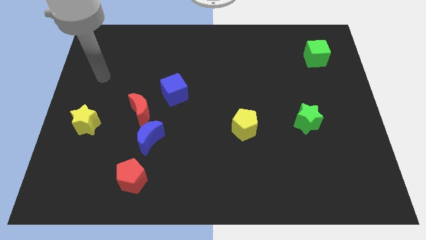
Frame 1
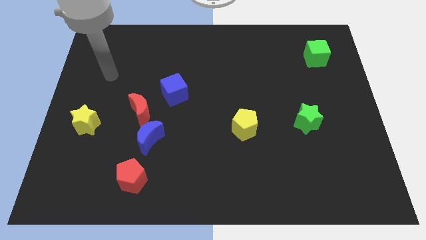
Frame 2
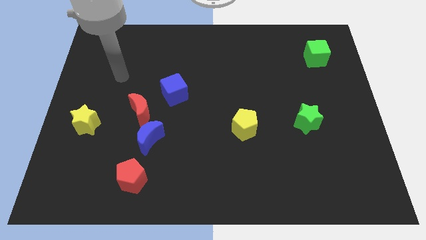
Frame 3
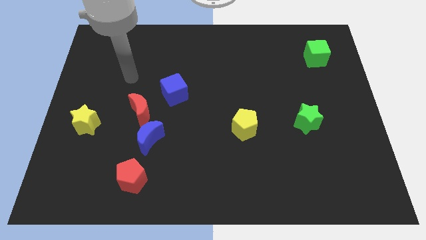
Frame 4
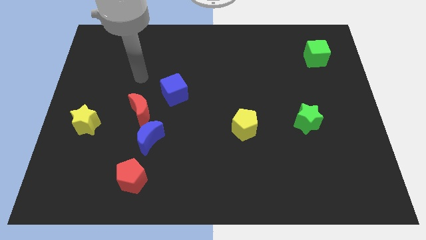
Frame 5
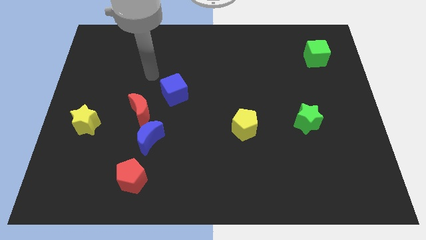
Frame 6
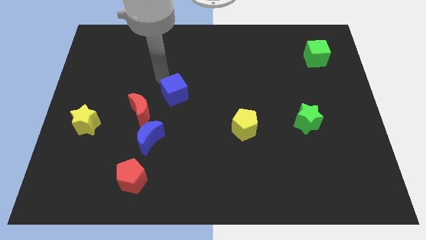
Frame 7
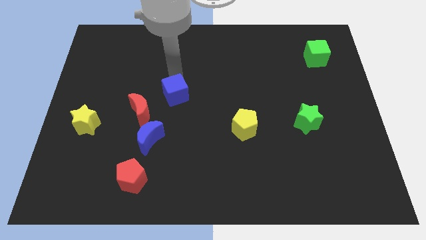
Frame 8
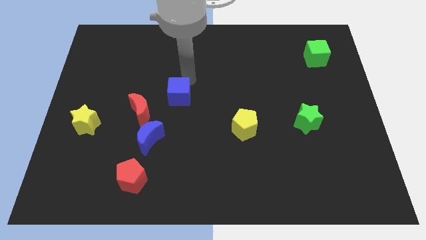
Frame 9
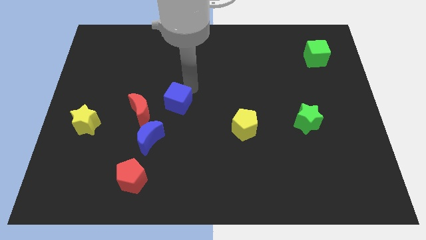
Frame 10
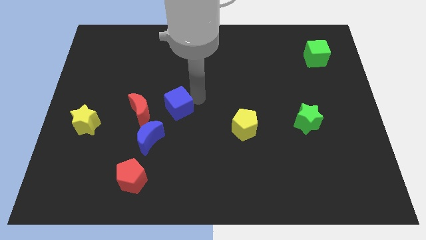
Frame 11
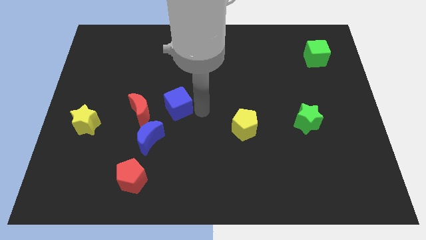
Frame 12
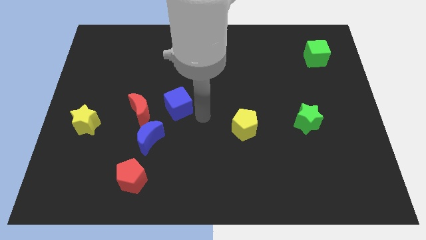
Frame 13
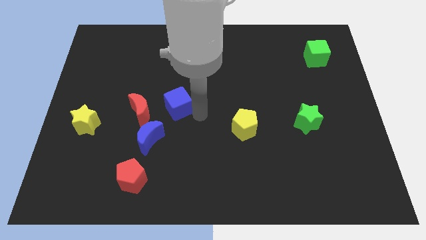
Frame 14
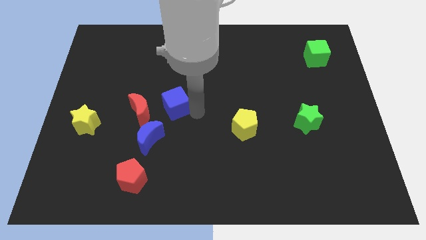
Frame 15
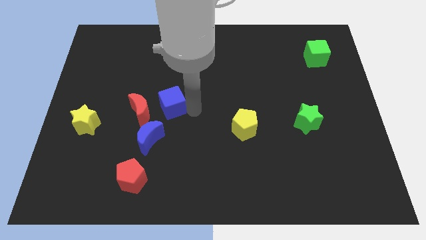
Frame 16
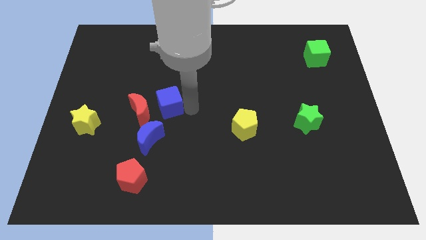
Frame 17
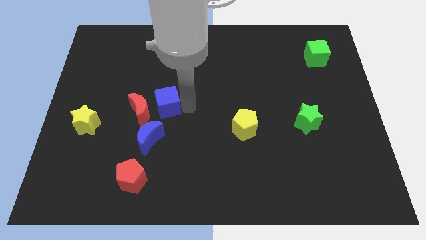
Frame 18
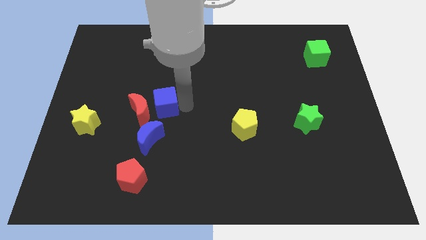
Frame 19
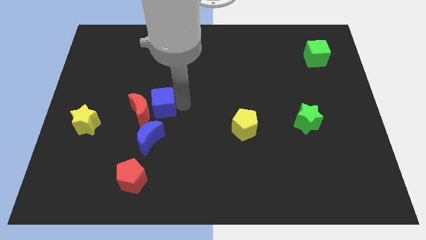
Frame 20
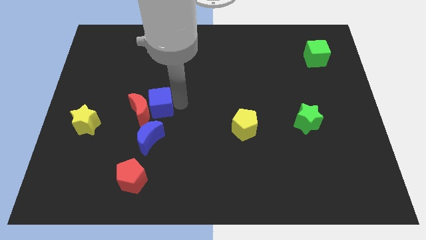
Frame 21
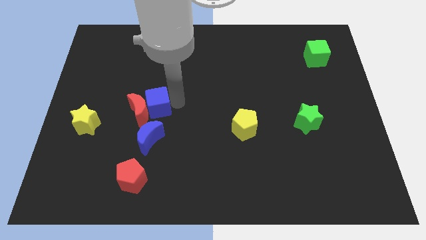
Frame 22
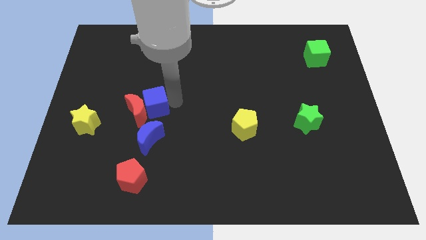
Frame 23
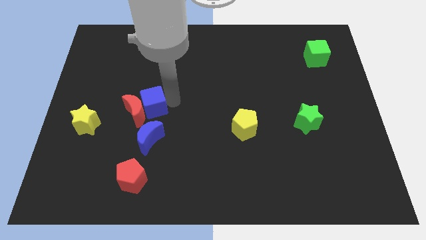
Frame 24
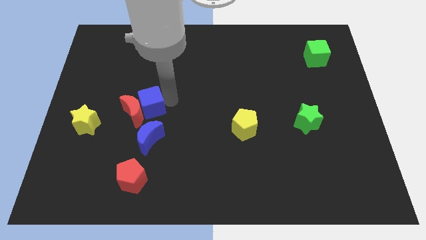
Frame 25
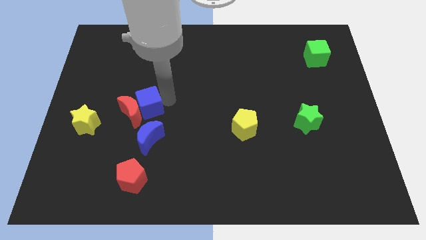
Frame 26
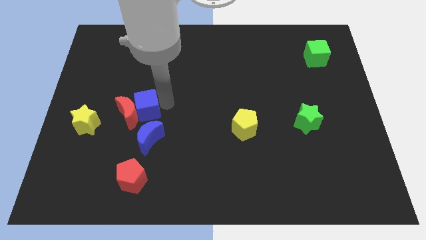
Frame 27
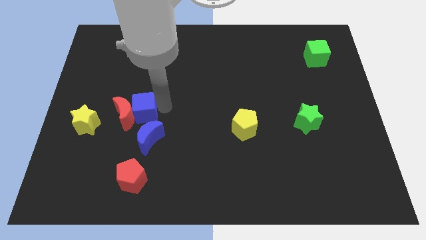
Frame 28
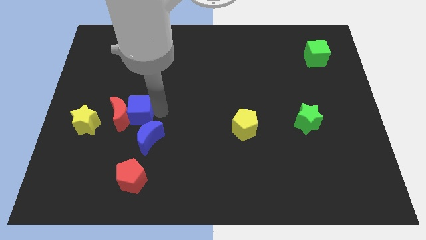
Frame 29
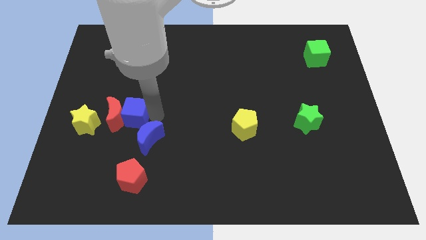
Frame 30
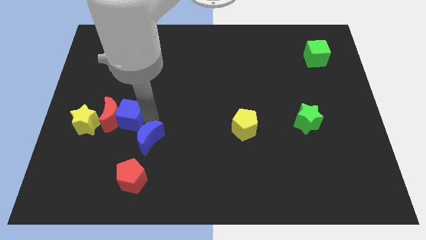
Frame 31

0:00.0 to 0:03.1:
push the blue cube a bit to the left

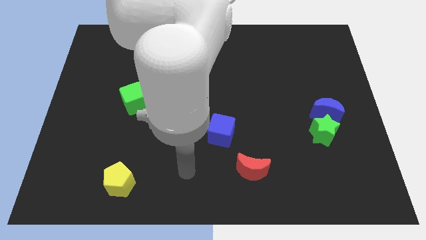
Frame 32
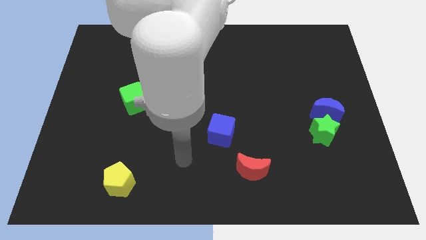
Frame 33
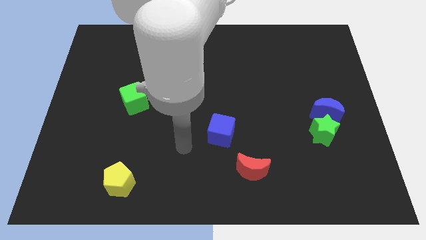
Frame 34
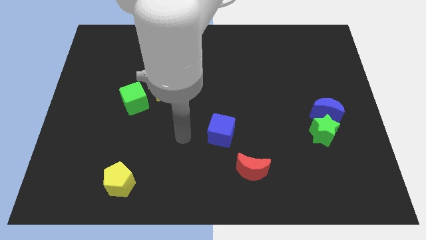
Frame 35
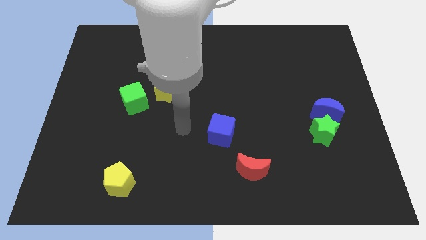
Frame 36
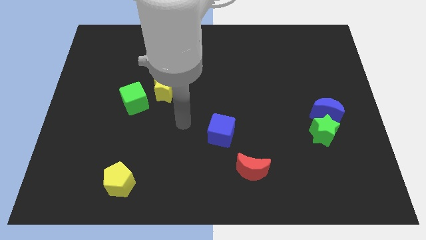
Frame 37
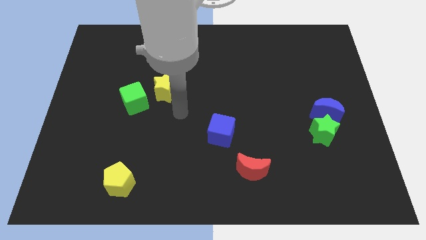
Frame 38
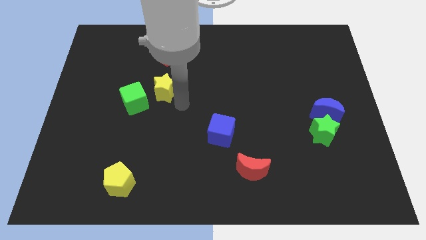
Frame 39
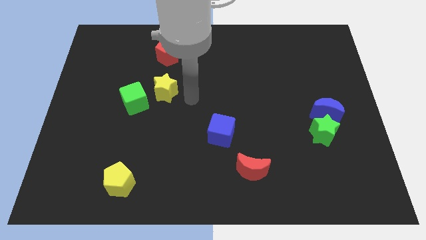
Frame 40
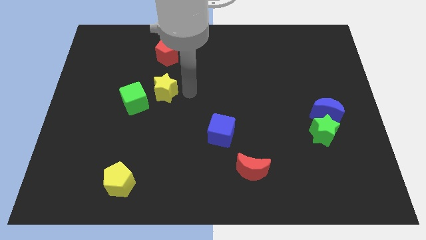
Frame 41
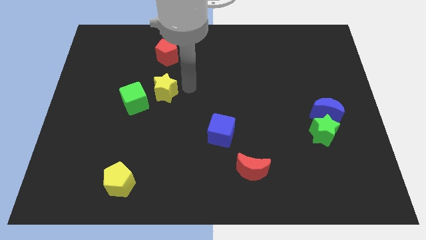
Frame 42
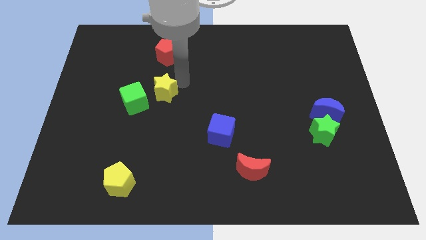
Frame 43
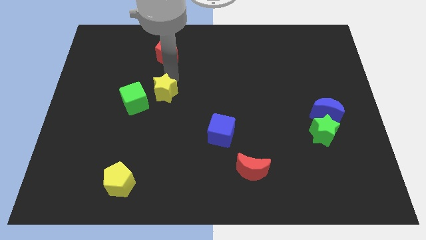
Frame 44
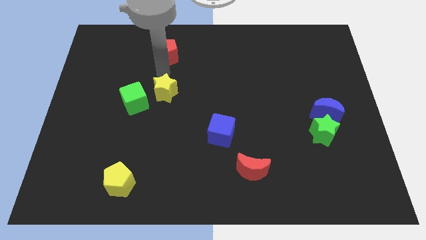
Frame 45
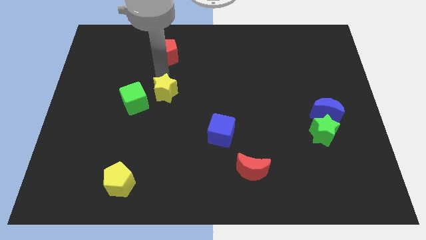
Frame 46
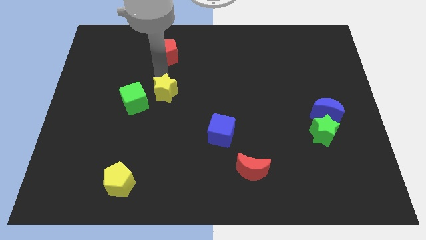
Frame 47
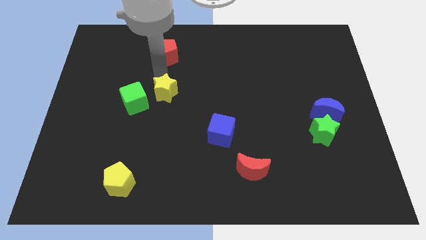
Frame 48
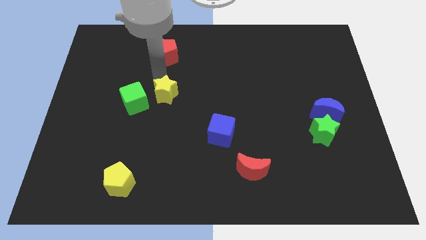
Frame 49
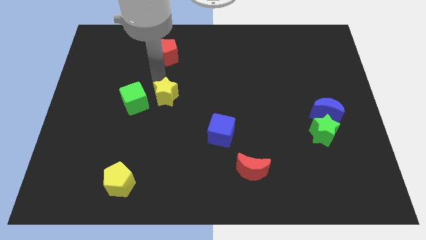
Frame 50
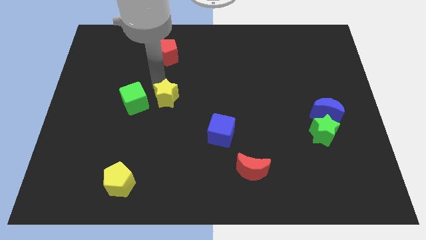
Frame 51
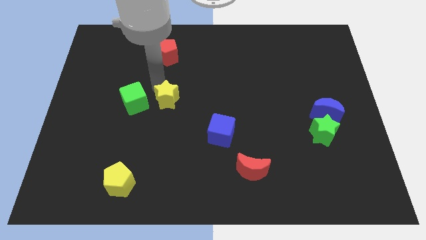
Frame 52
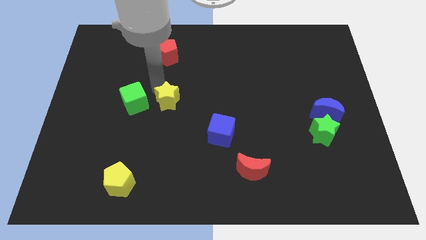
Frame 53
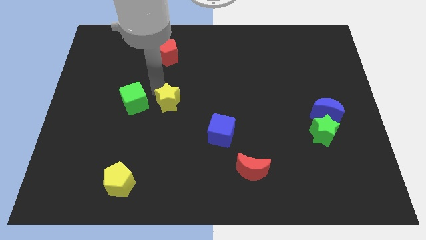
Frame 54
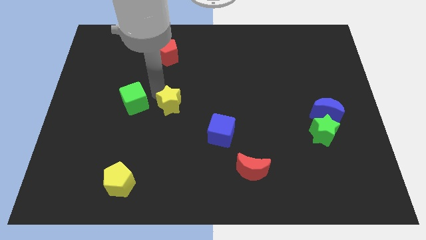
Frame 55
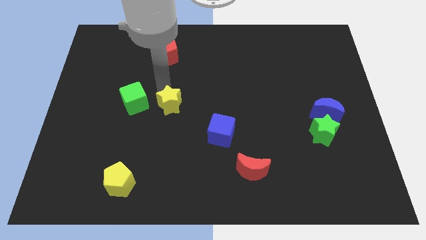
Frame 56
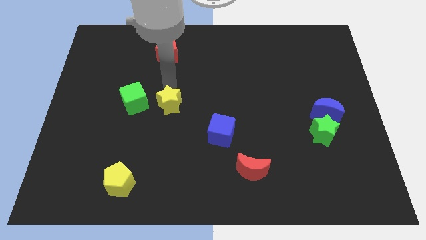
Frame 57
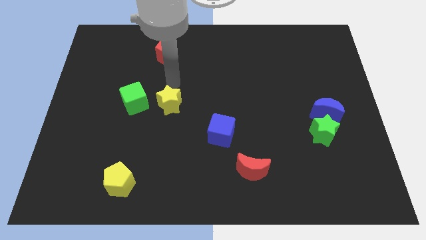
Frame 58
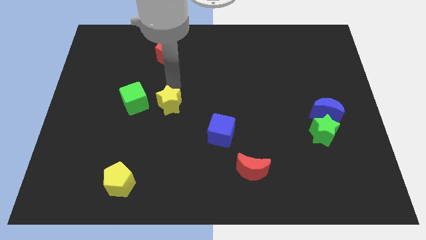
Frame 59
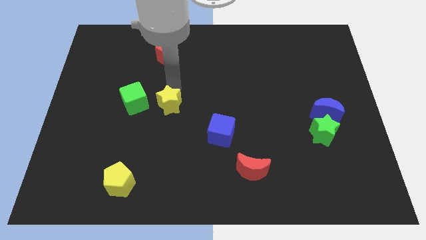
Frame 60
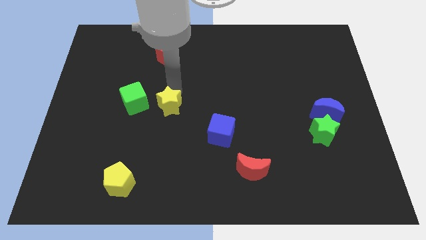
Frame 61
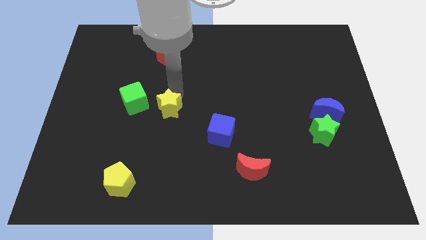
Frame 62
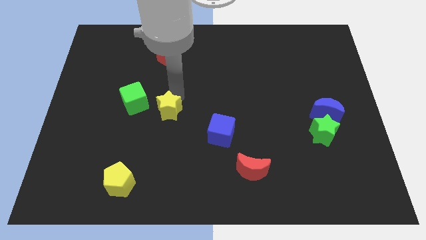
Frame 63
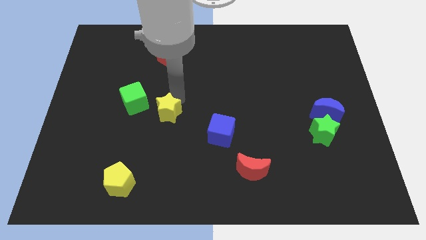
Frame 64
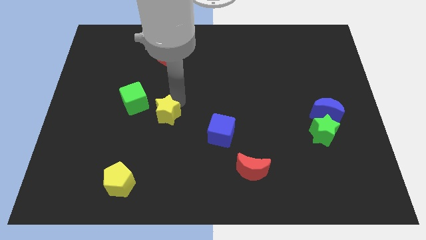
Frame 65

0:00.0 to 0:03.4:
move the yellow star a little bit downwards

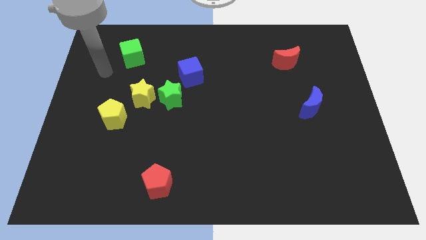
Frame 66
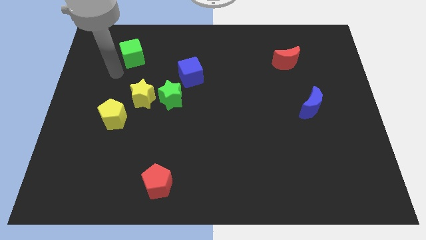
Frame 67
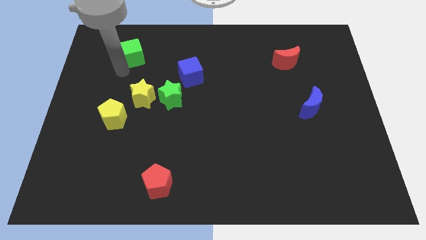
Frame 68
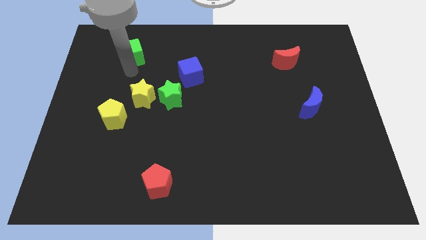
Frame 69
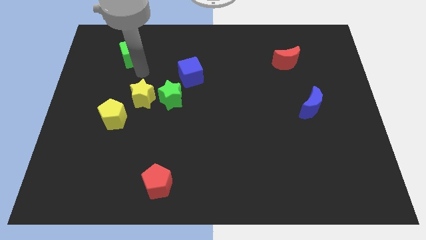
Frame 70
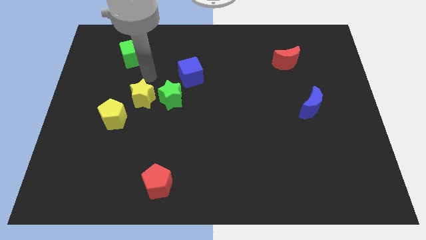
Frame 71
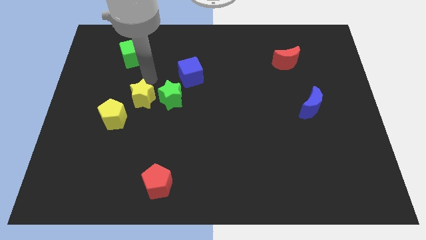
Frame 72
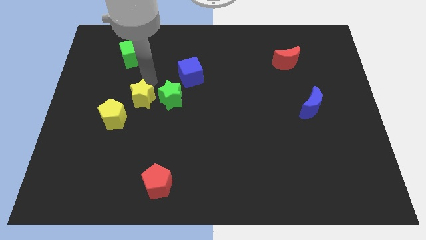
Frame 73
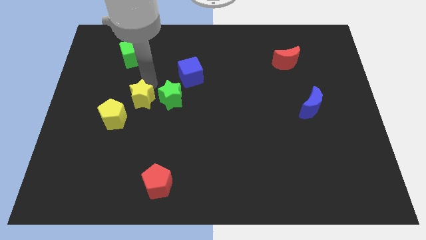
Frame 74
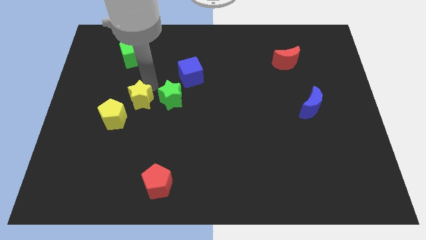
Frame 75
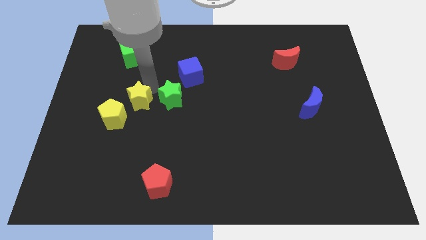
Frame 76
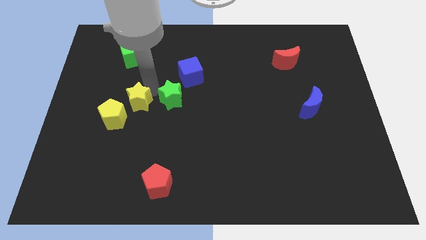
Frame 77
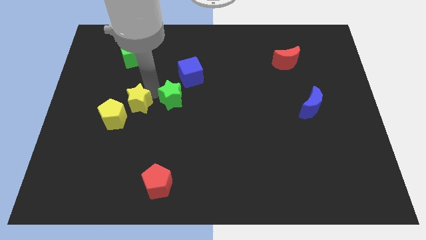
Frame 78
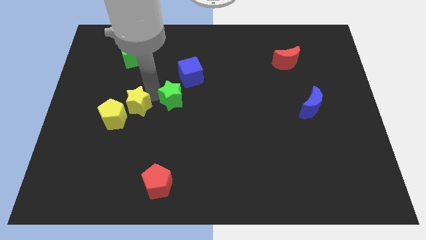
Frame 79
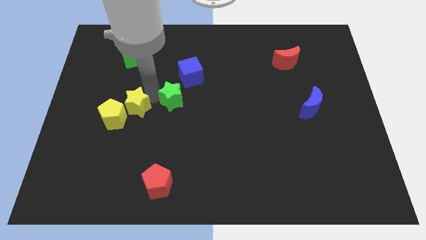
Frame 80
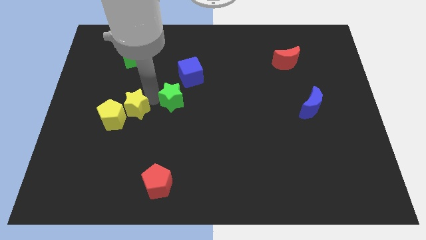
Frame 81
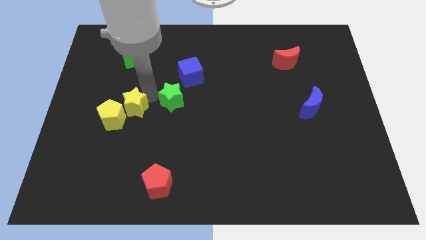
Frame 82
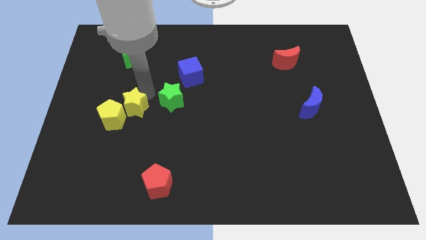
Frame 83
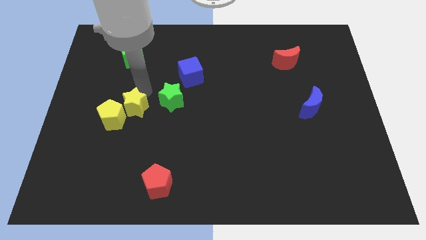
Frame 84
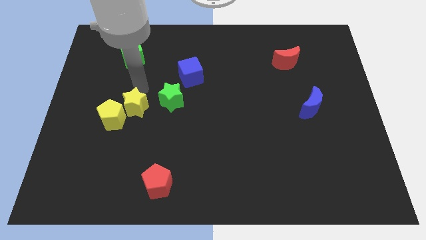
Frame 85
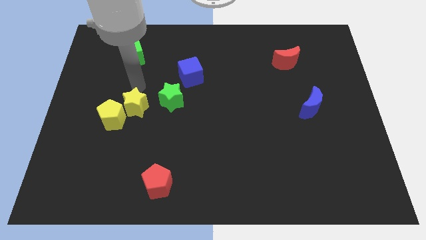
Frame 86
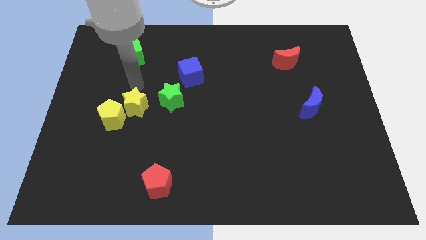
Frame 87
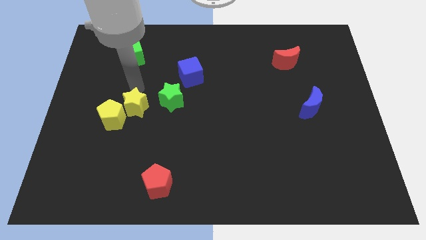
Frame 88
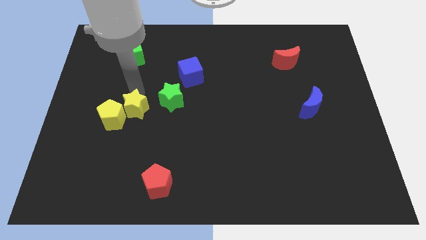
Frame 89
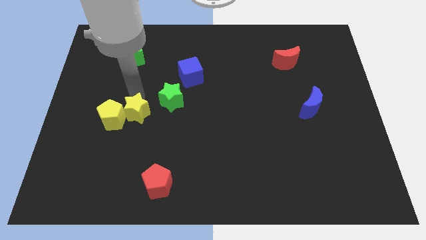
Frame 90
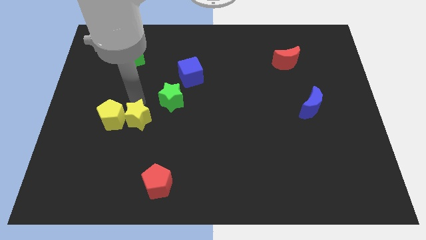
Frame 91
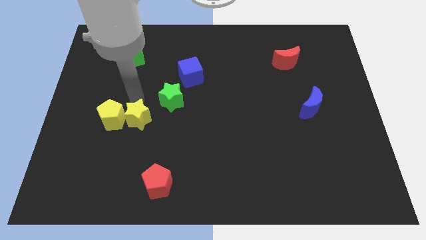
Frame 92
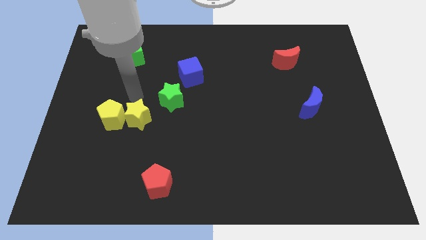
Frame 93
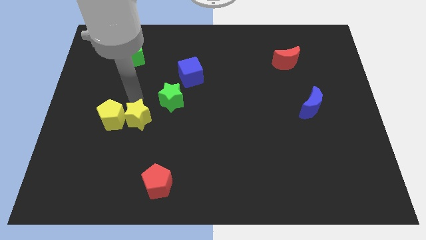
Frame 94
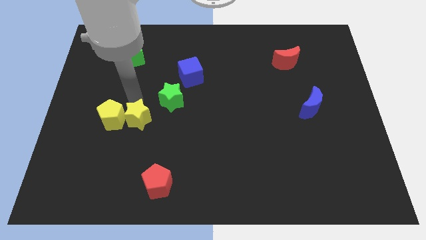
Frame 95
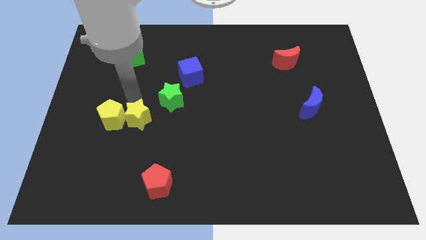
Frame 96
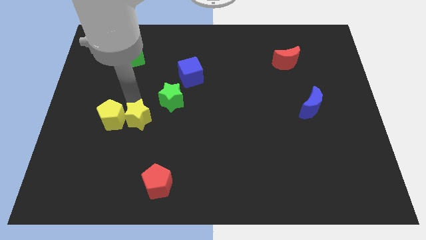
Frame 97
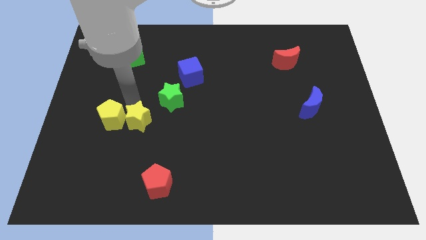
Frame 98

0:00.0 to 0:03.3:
move the yellow star down a bit
